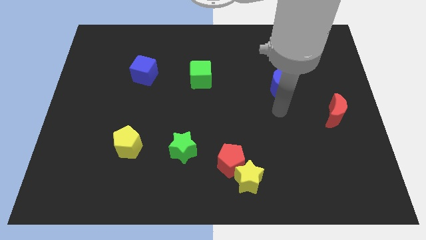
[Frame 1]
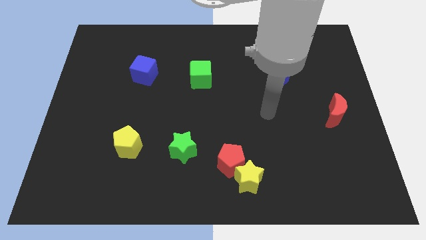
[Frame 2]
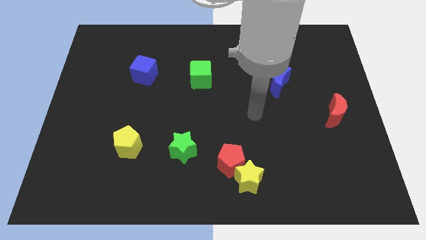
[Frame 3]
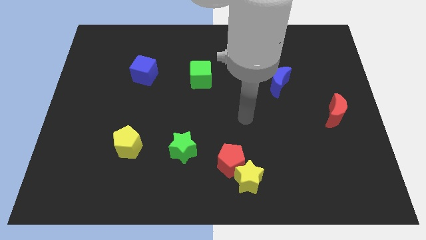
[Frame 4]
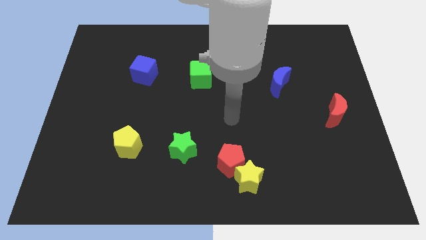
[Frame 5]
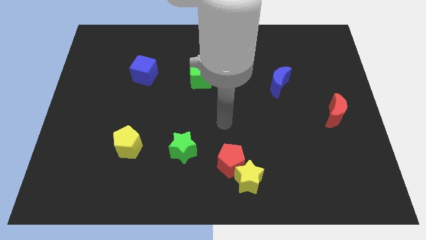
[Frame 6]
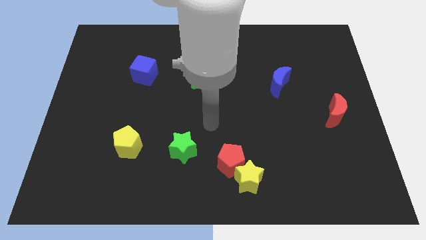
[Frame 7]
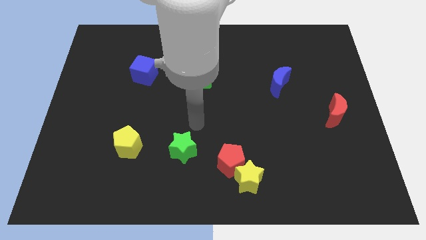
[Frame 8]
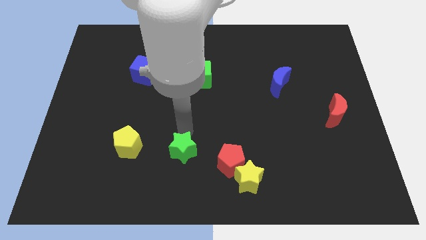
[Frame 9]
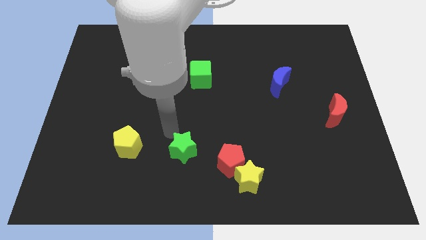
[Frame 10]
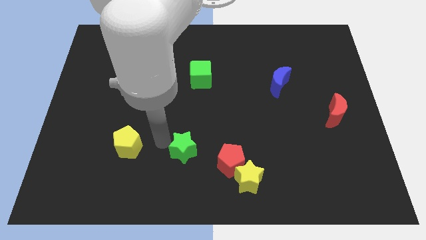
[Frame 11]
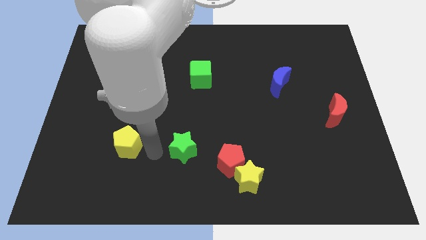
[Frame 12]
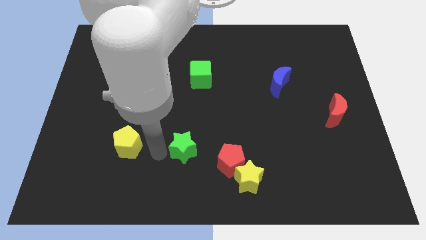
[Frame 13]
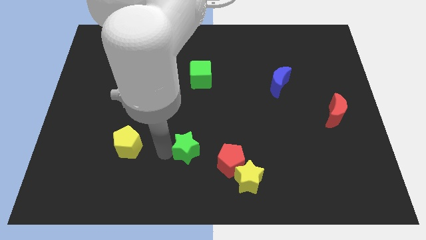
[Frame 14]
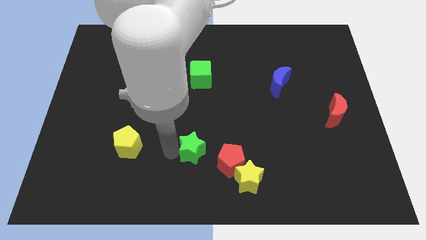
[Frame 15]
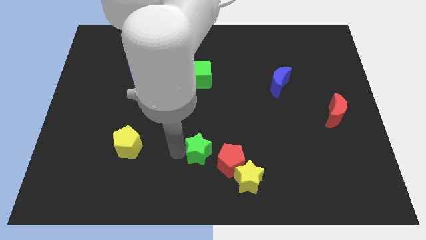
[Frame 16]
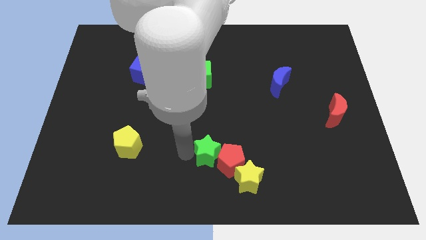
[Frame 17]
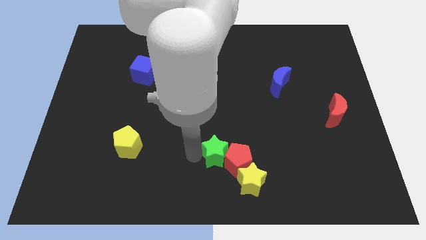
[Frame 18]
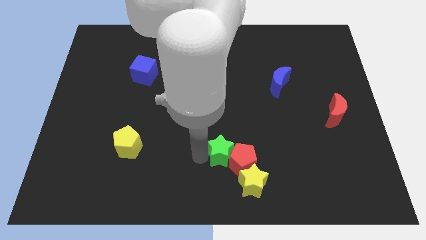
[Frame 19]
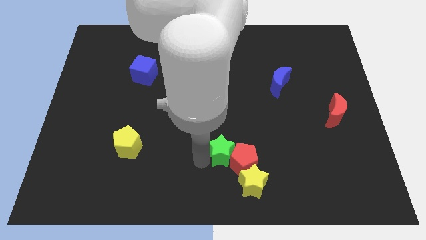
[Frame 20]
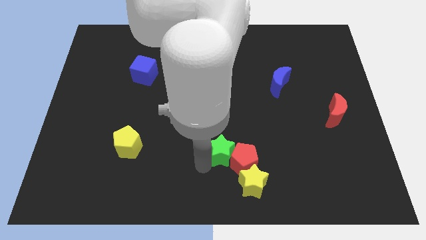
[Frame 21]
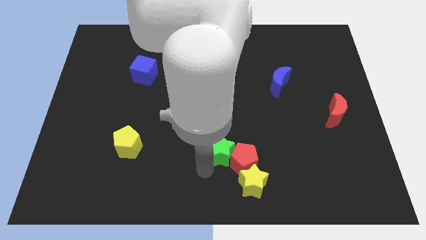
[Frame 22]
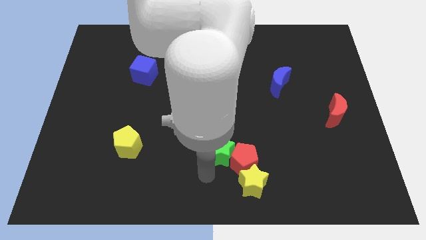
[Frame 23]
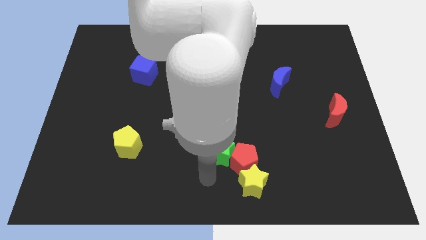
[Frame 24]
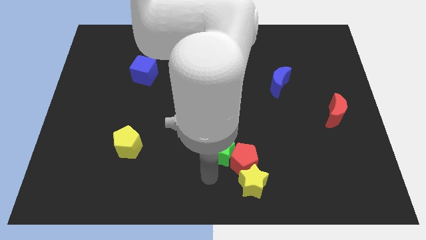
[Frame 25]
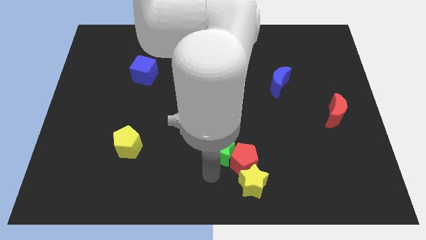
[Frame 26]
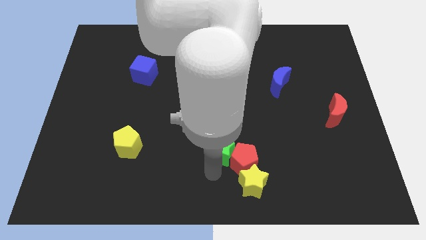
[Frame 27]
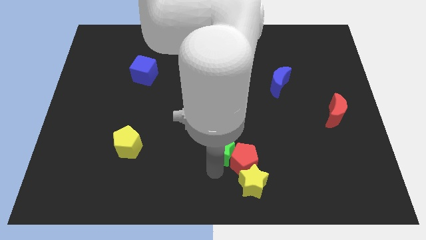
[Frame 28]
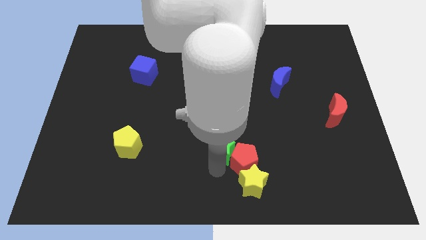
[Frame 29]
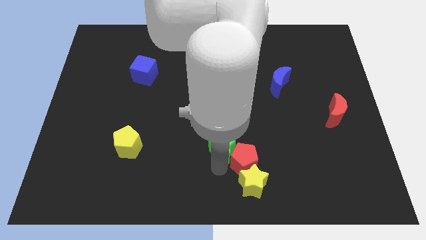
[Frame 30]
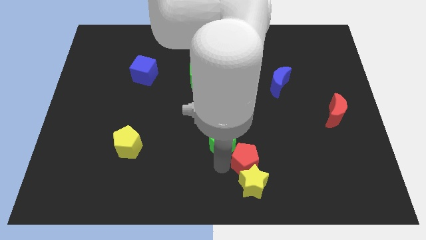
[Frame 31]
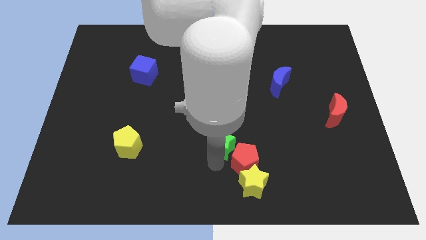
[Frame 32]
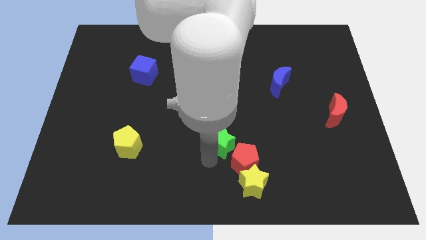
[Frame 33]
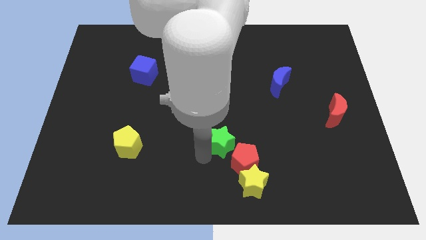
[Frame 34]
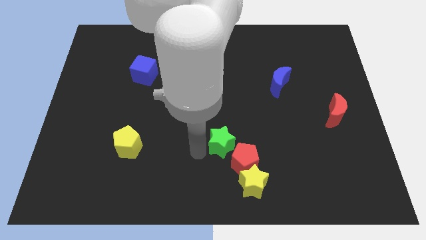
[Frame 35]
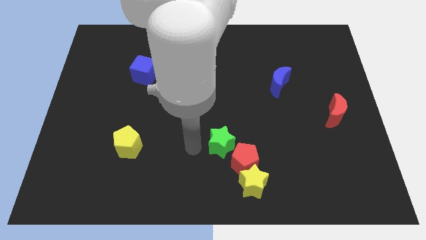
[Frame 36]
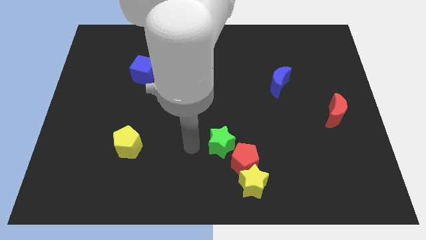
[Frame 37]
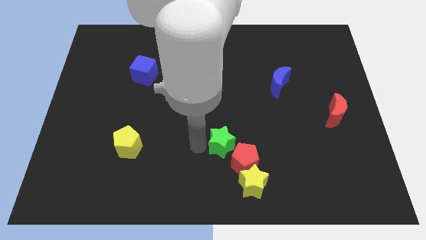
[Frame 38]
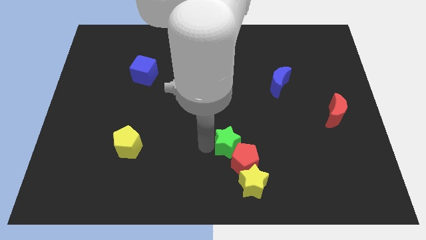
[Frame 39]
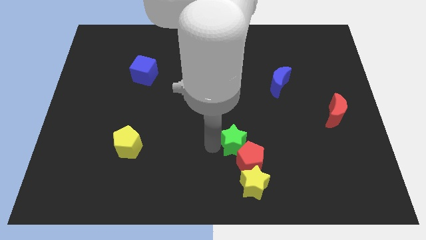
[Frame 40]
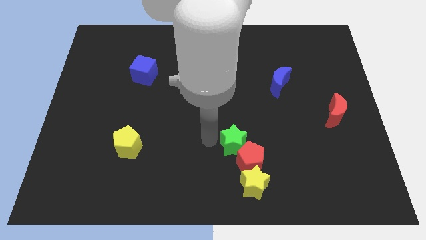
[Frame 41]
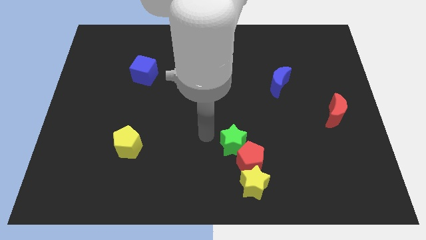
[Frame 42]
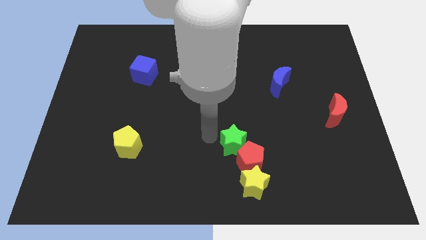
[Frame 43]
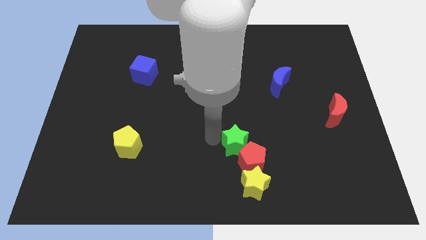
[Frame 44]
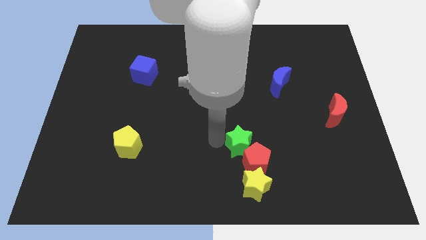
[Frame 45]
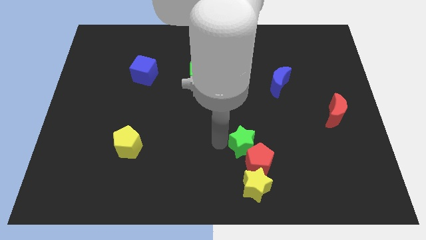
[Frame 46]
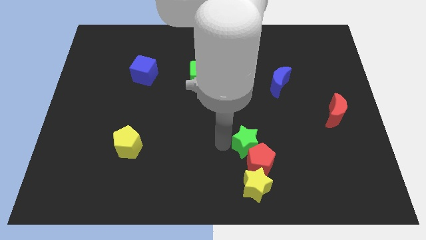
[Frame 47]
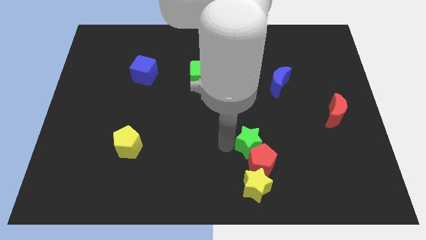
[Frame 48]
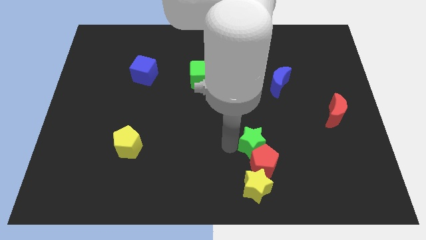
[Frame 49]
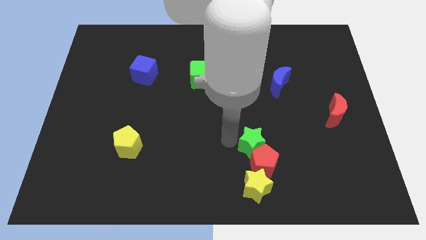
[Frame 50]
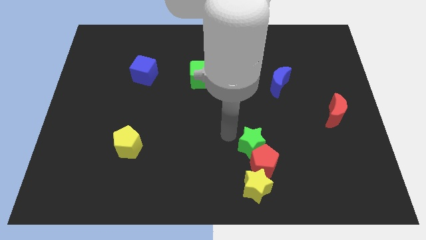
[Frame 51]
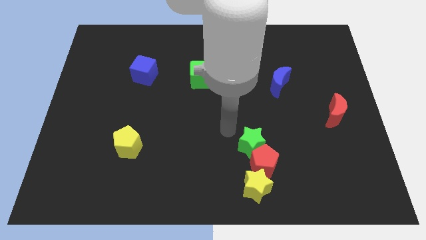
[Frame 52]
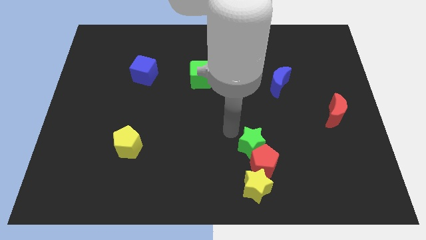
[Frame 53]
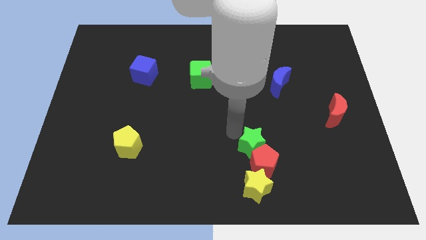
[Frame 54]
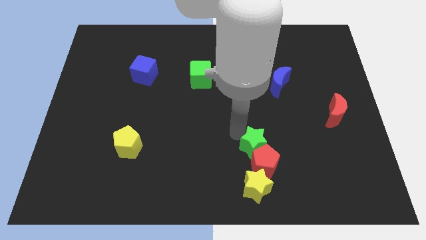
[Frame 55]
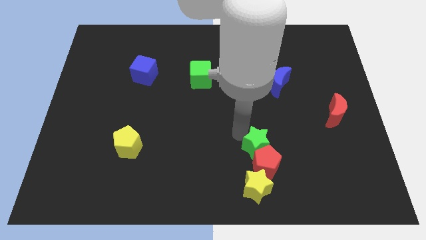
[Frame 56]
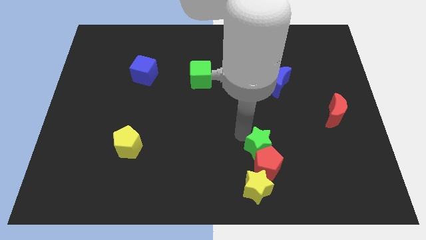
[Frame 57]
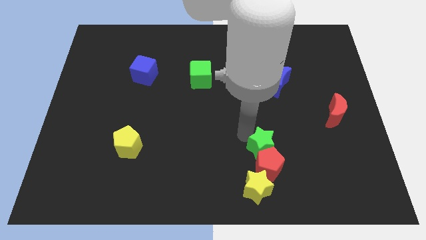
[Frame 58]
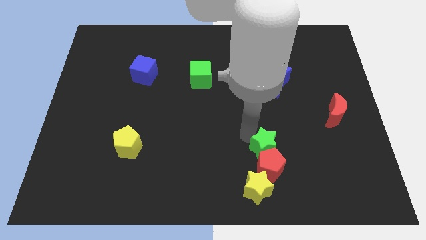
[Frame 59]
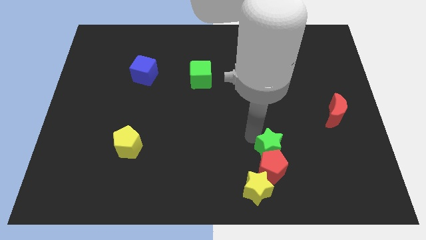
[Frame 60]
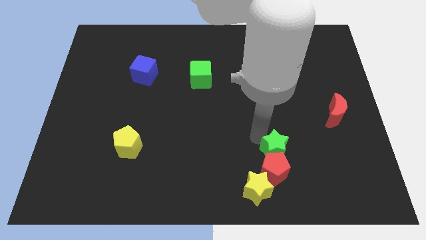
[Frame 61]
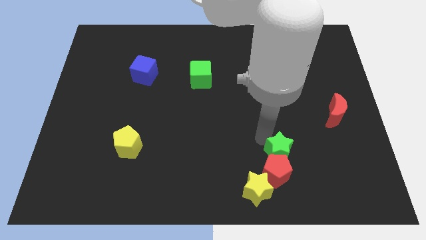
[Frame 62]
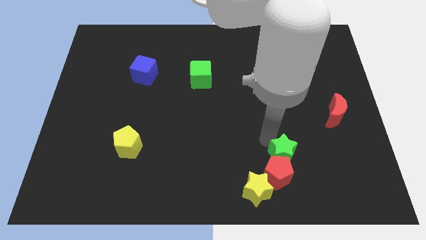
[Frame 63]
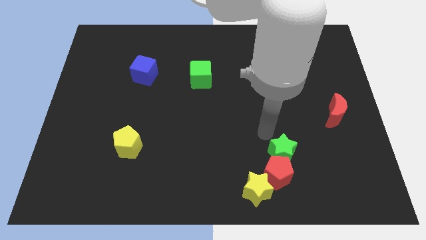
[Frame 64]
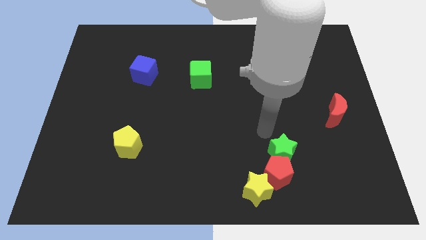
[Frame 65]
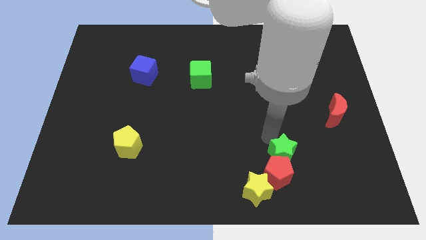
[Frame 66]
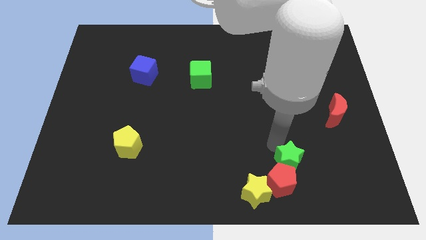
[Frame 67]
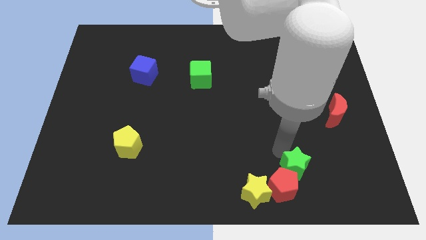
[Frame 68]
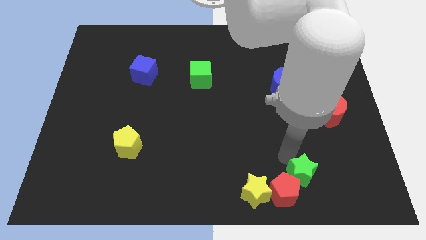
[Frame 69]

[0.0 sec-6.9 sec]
push the green star just right of the yellow star
